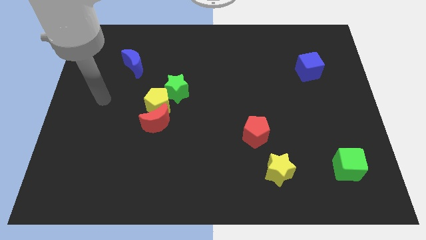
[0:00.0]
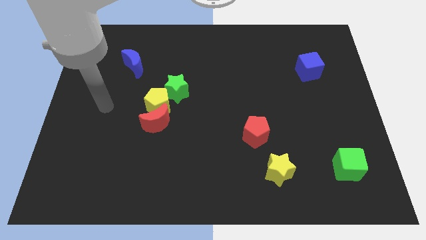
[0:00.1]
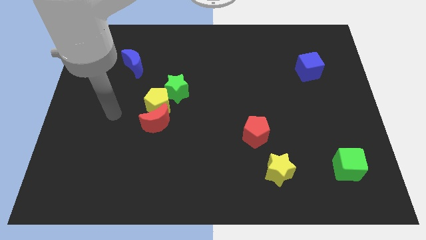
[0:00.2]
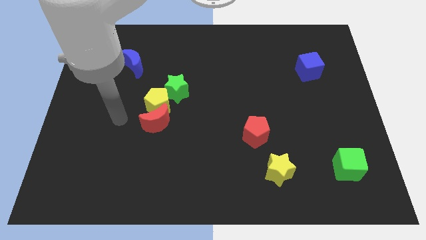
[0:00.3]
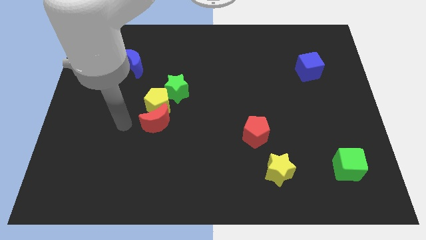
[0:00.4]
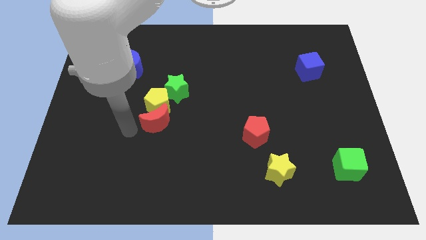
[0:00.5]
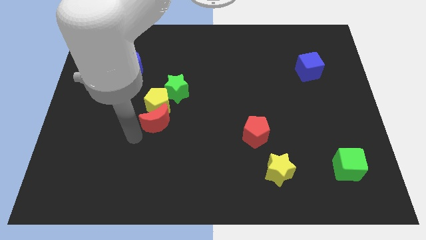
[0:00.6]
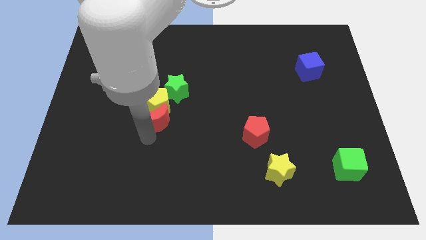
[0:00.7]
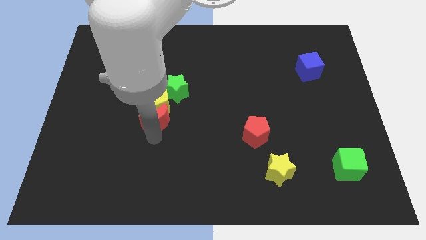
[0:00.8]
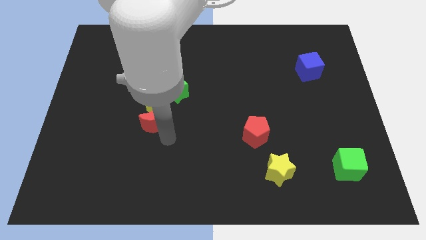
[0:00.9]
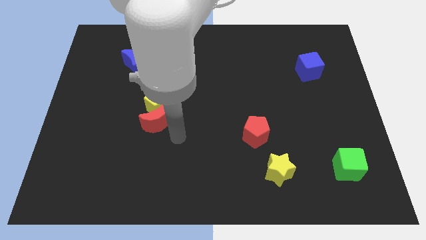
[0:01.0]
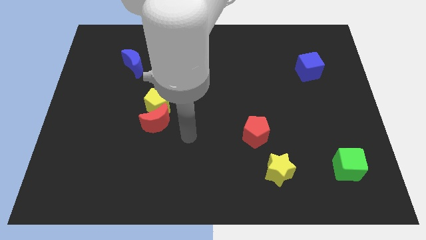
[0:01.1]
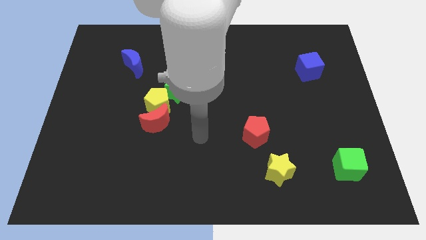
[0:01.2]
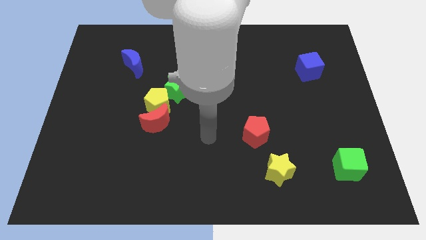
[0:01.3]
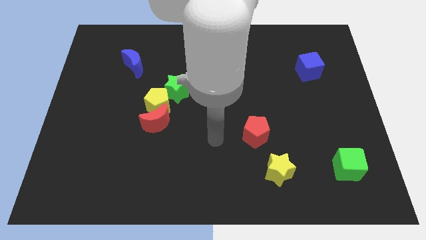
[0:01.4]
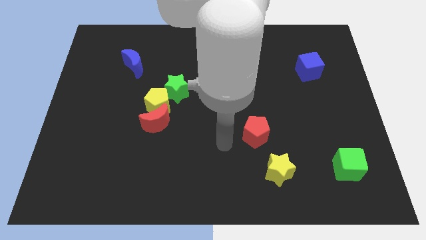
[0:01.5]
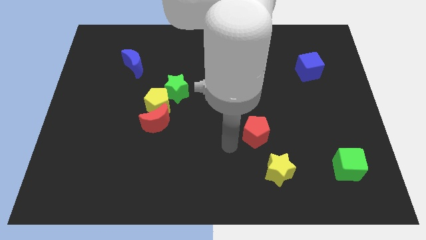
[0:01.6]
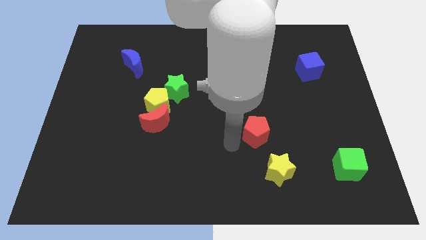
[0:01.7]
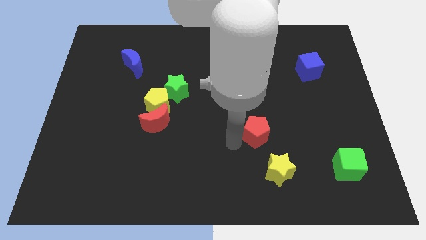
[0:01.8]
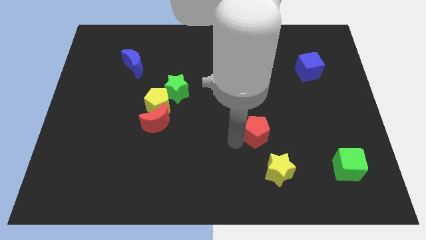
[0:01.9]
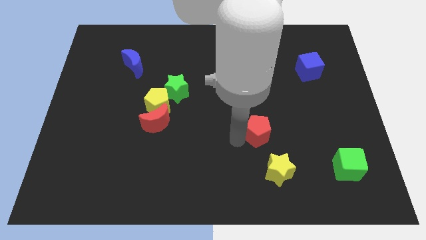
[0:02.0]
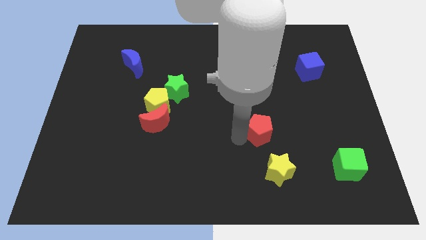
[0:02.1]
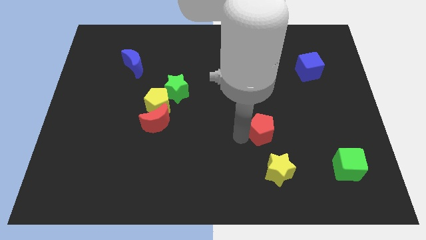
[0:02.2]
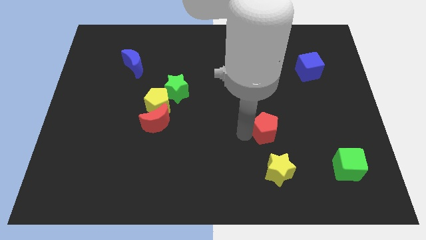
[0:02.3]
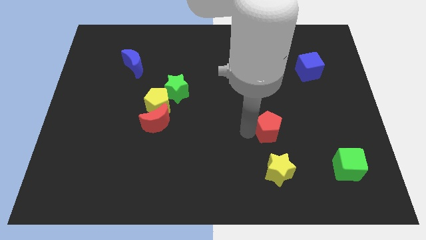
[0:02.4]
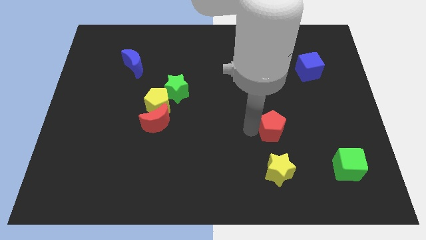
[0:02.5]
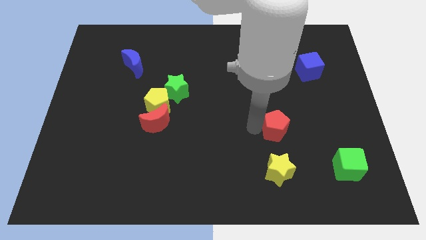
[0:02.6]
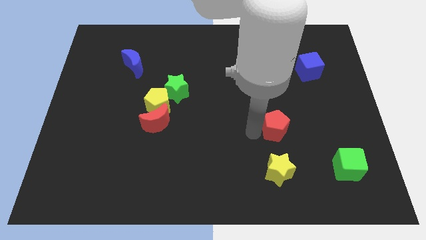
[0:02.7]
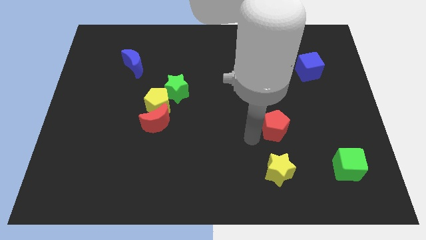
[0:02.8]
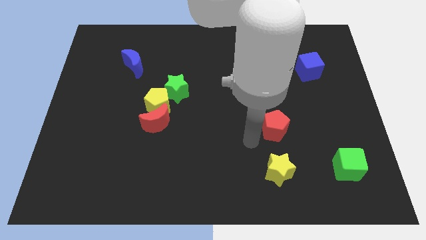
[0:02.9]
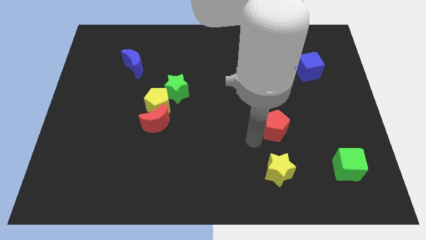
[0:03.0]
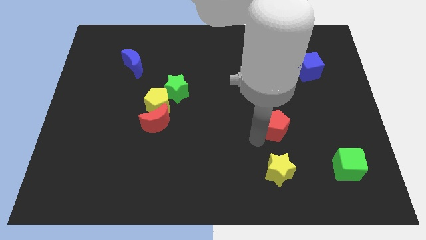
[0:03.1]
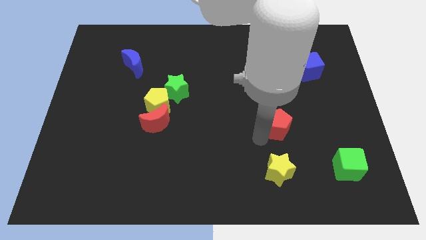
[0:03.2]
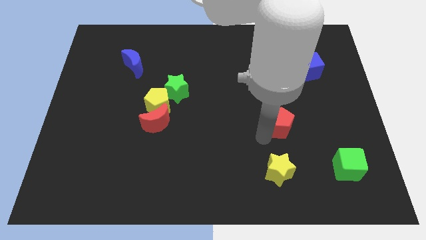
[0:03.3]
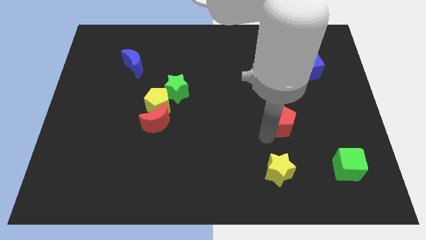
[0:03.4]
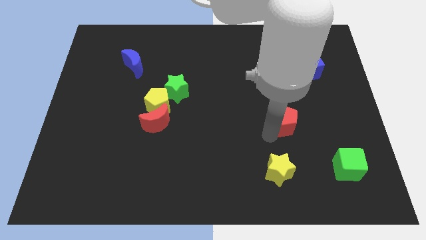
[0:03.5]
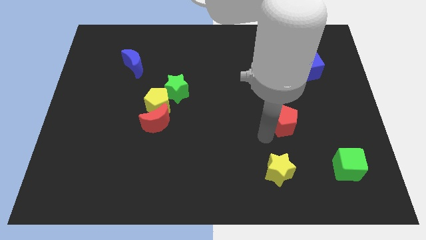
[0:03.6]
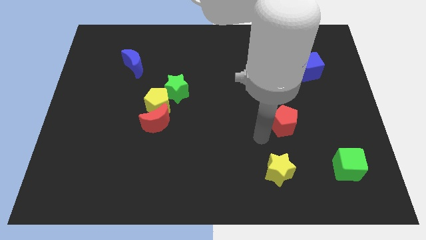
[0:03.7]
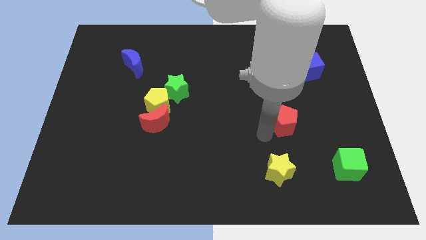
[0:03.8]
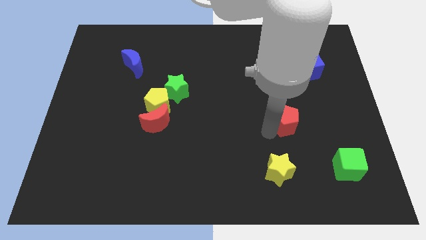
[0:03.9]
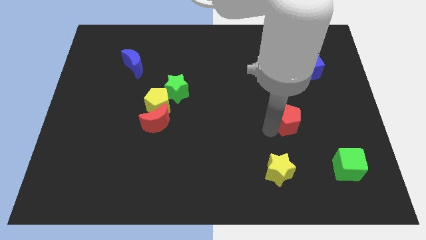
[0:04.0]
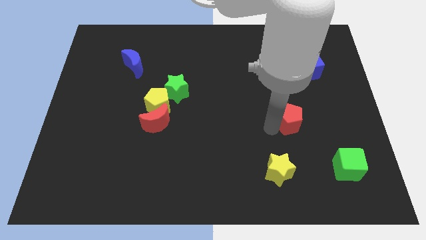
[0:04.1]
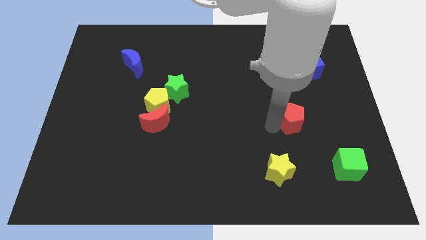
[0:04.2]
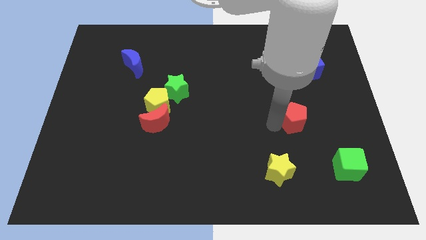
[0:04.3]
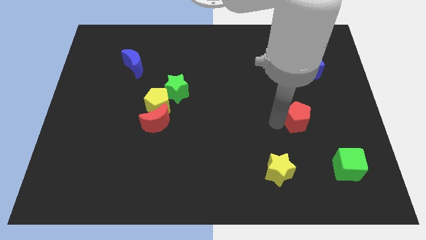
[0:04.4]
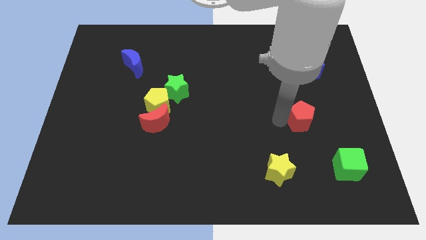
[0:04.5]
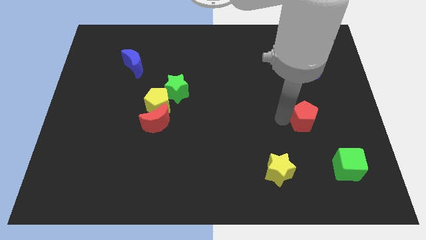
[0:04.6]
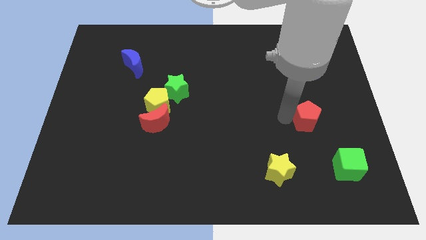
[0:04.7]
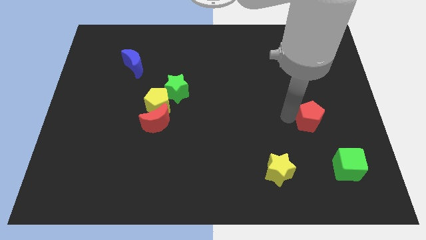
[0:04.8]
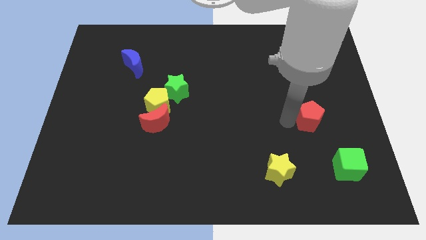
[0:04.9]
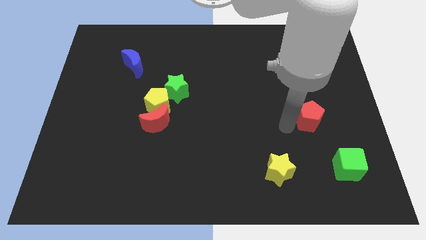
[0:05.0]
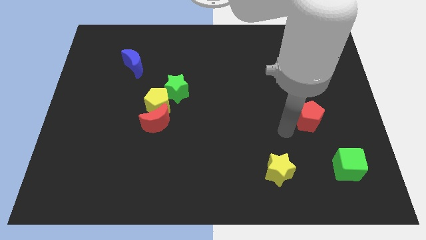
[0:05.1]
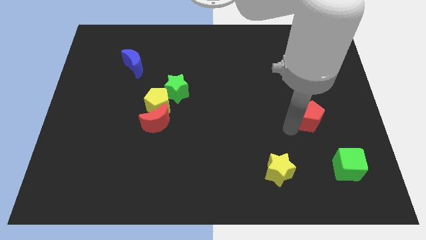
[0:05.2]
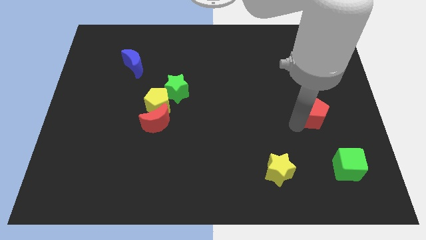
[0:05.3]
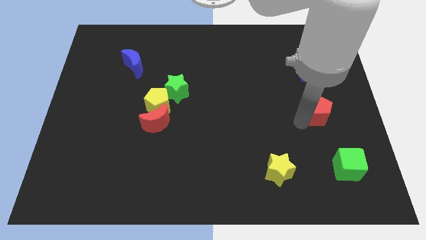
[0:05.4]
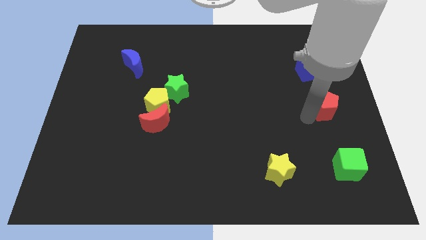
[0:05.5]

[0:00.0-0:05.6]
push the red pentagon to the center right

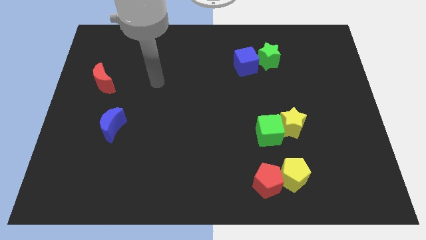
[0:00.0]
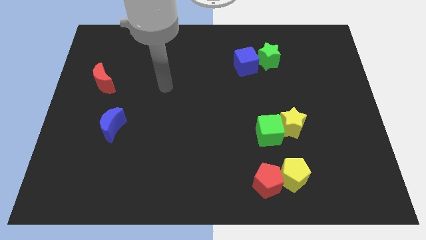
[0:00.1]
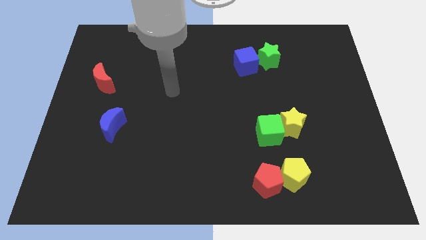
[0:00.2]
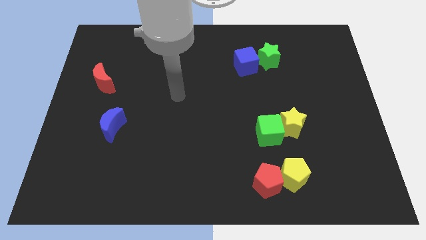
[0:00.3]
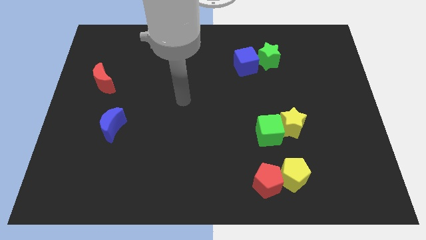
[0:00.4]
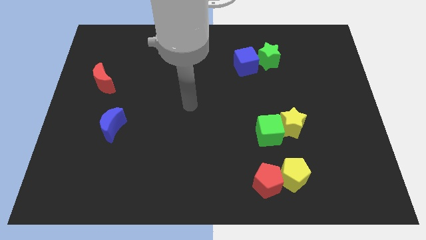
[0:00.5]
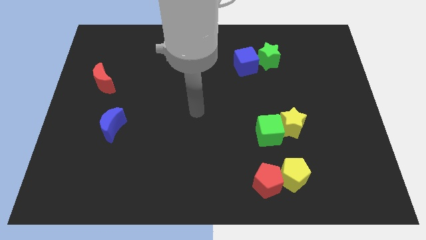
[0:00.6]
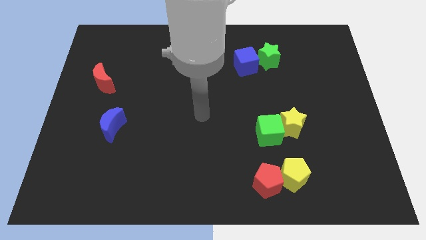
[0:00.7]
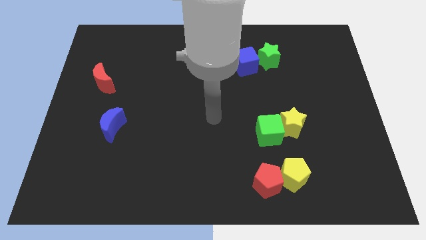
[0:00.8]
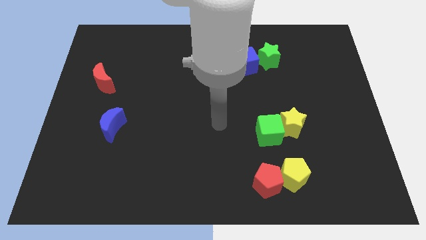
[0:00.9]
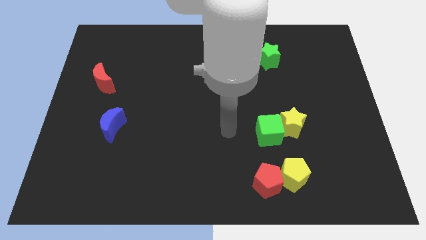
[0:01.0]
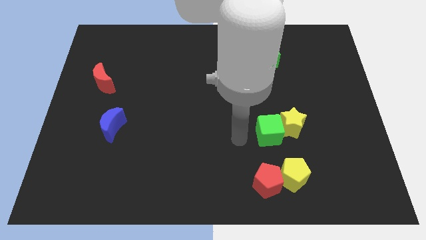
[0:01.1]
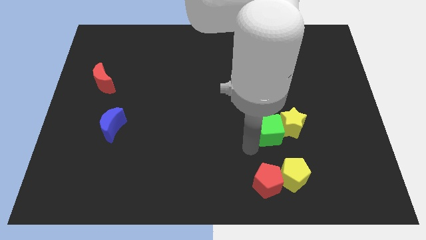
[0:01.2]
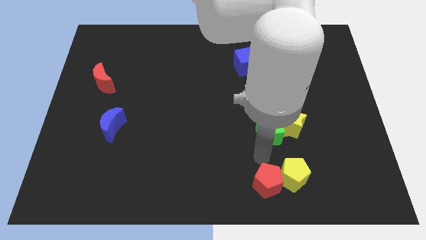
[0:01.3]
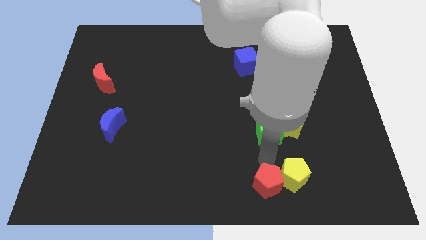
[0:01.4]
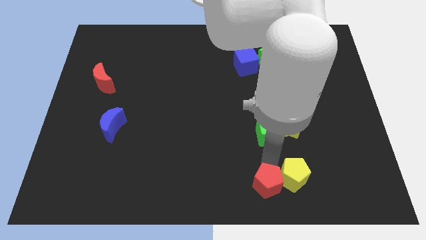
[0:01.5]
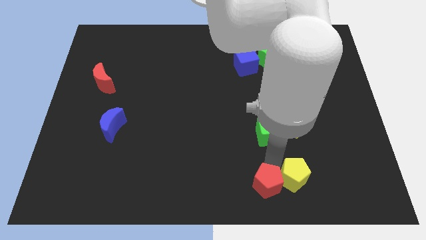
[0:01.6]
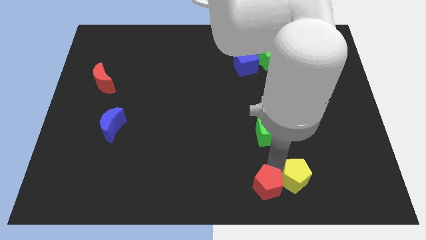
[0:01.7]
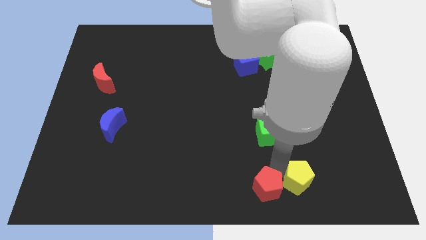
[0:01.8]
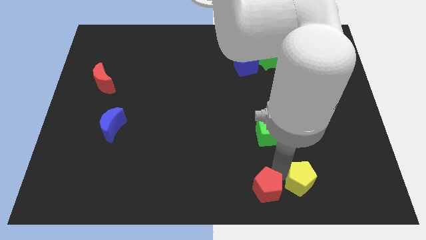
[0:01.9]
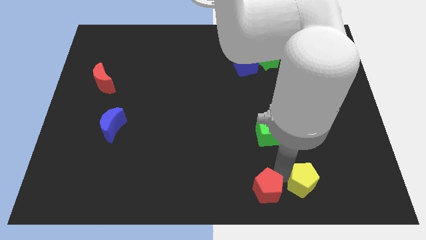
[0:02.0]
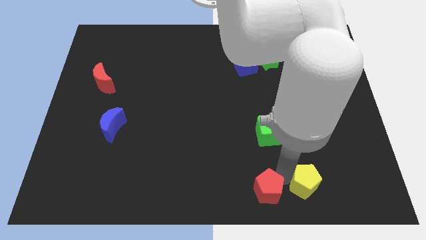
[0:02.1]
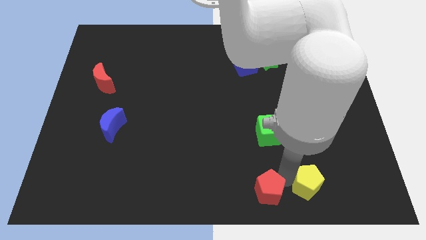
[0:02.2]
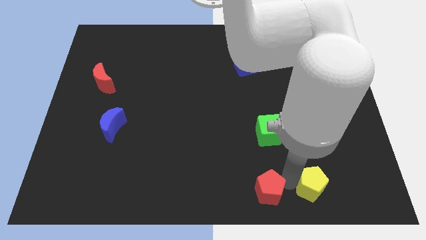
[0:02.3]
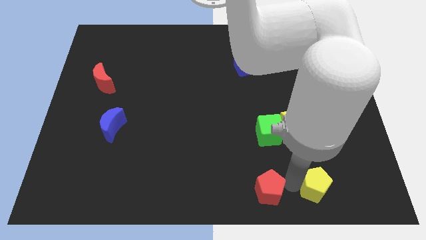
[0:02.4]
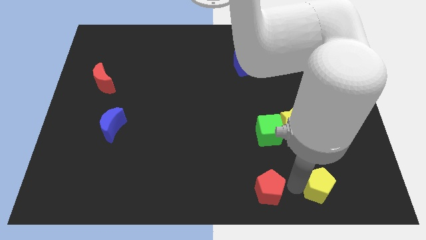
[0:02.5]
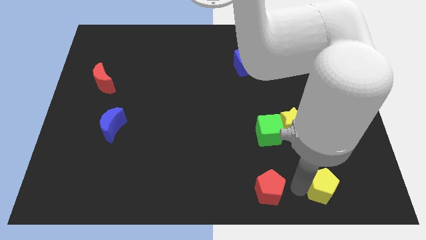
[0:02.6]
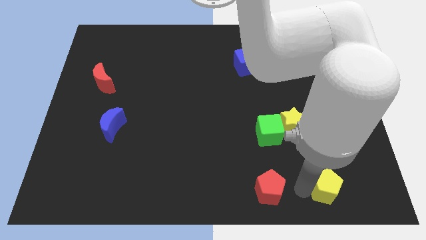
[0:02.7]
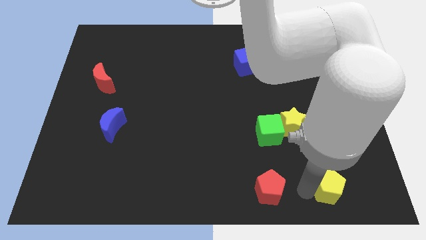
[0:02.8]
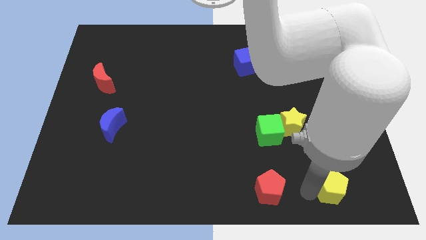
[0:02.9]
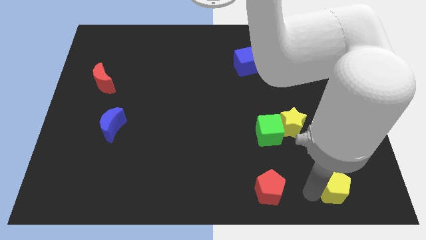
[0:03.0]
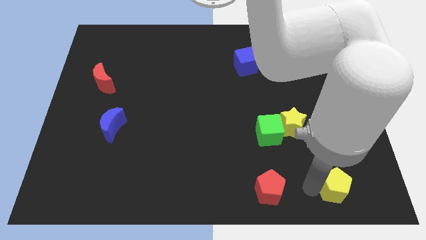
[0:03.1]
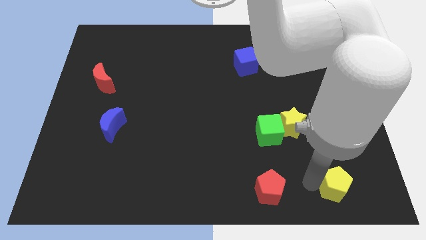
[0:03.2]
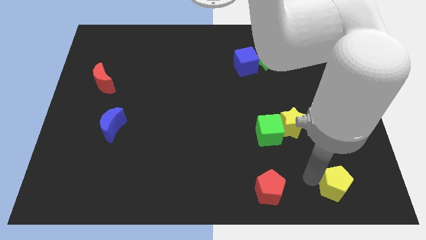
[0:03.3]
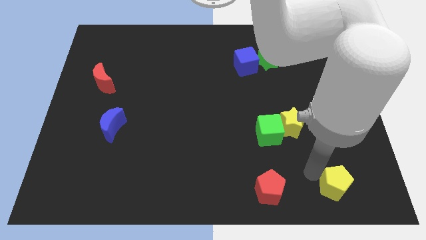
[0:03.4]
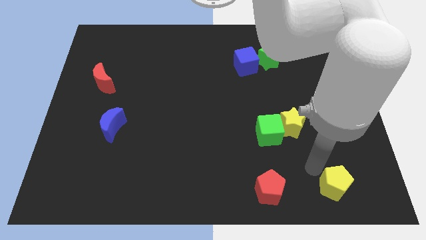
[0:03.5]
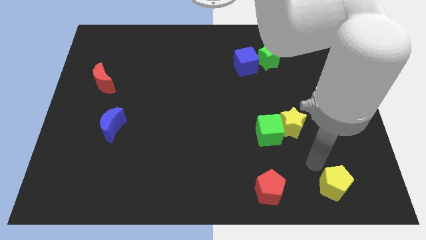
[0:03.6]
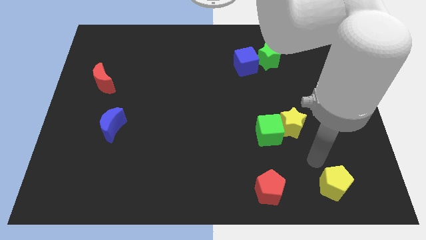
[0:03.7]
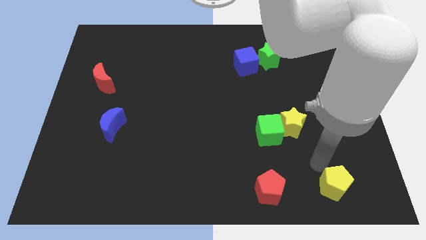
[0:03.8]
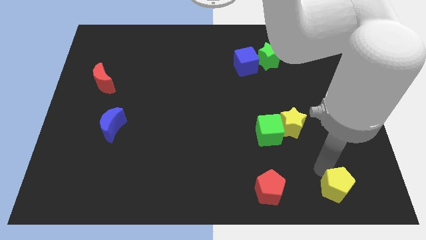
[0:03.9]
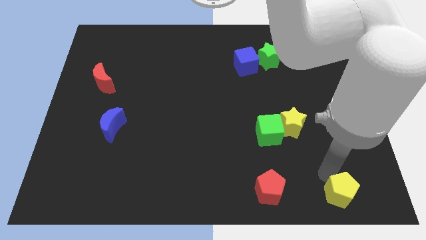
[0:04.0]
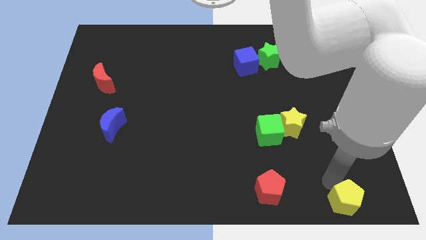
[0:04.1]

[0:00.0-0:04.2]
move the yellow pentagon to the bottom right corner
